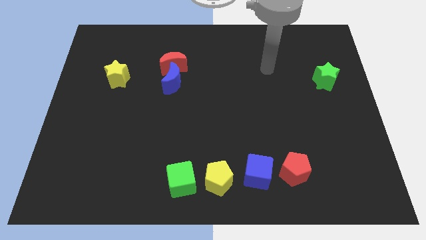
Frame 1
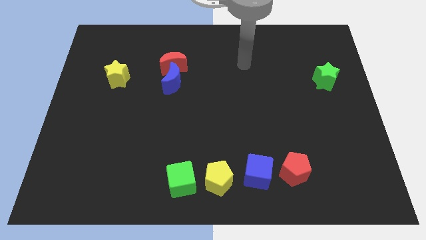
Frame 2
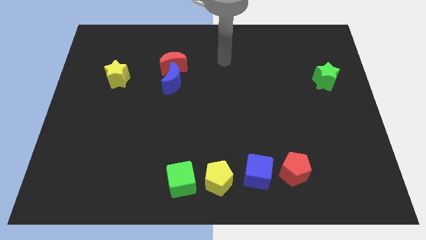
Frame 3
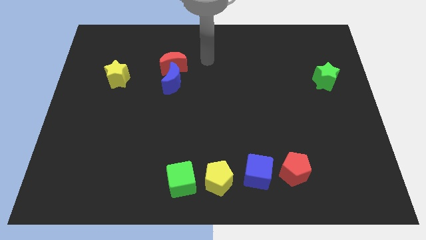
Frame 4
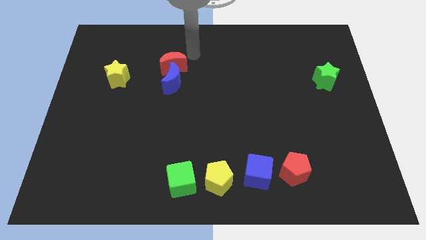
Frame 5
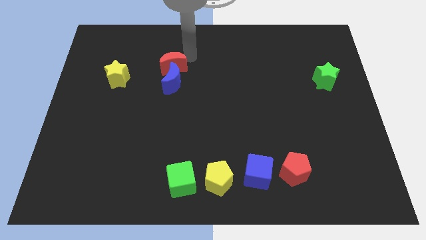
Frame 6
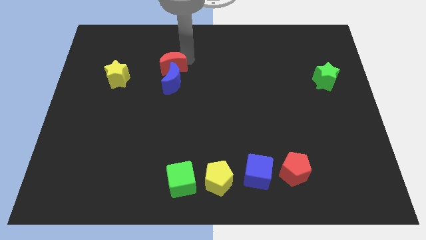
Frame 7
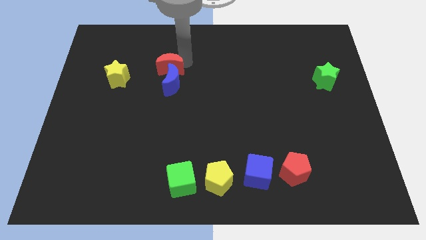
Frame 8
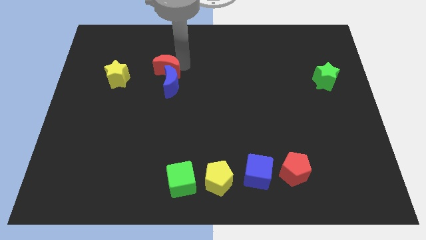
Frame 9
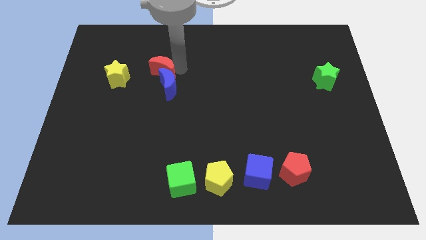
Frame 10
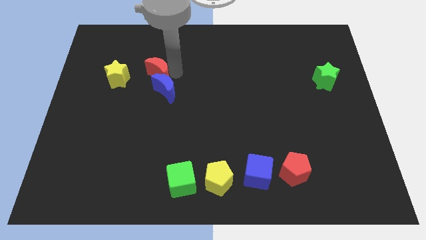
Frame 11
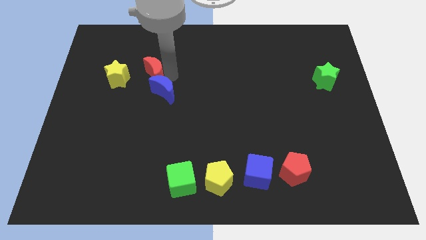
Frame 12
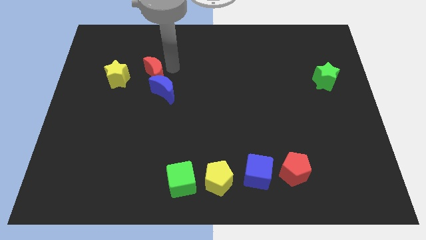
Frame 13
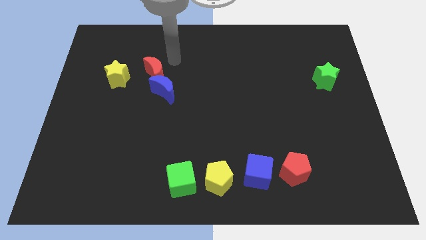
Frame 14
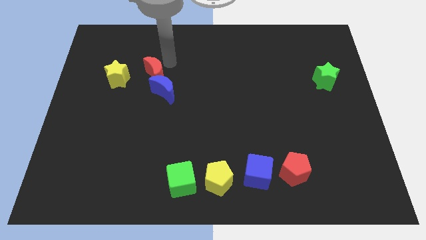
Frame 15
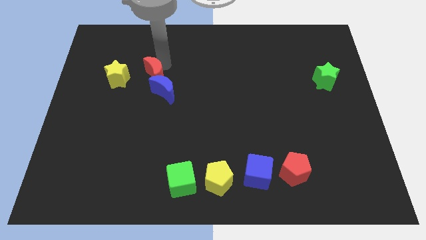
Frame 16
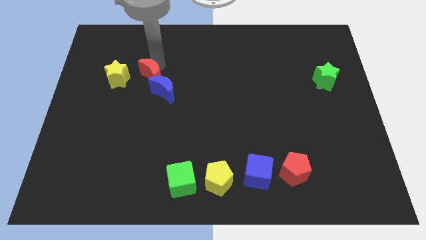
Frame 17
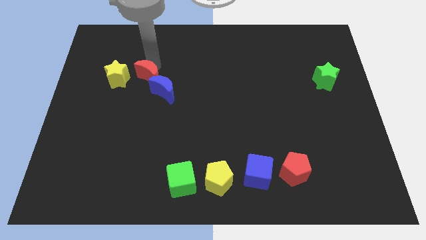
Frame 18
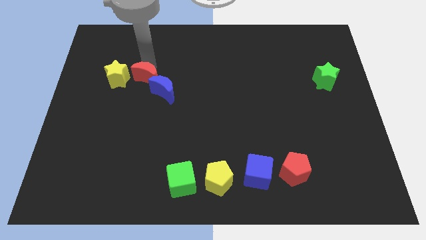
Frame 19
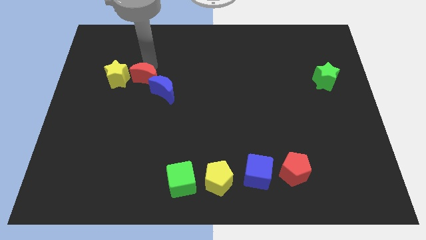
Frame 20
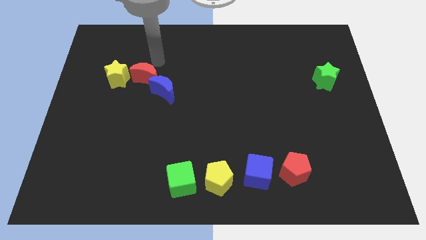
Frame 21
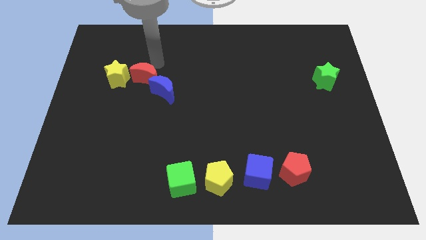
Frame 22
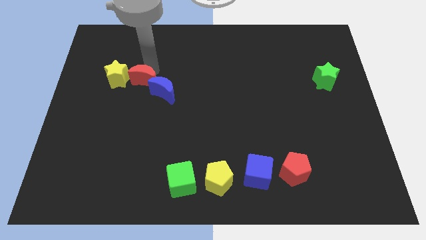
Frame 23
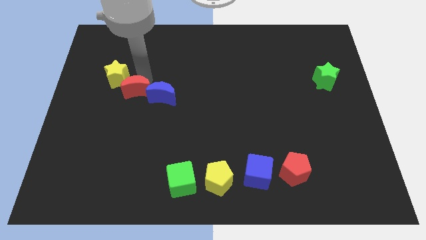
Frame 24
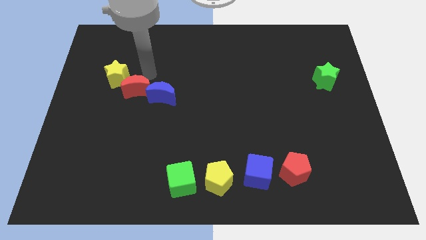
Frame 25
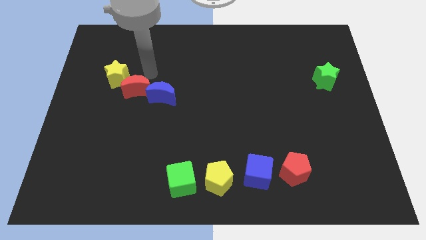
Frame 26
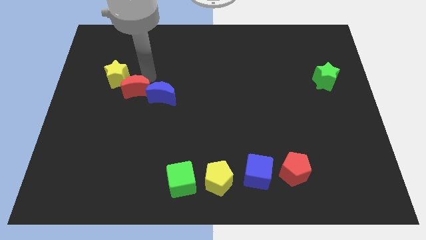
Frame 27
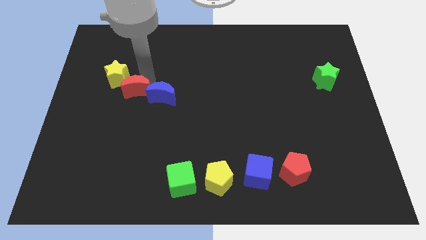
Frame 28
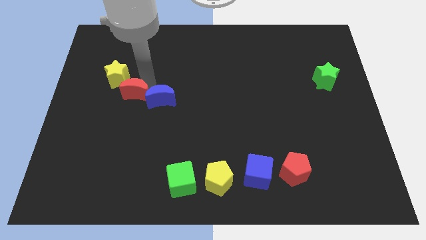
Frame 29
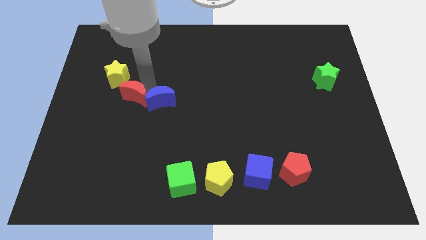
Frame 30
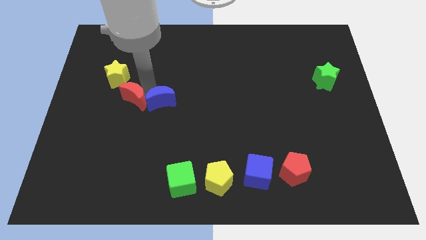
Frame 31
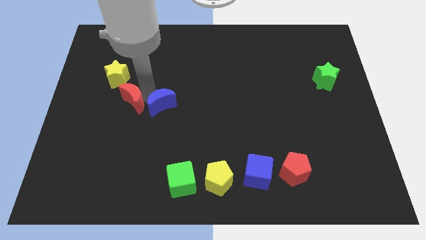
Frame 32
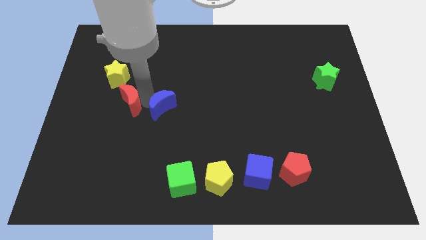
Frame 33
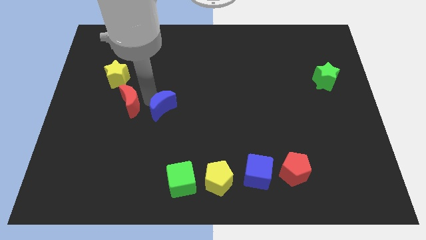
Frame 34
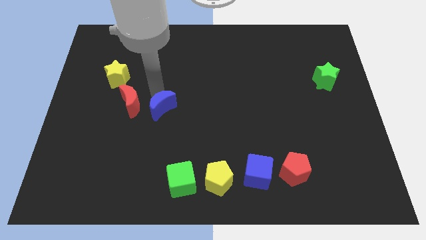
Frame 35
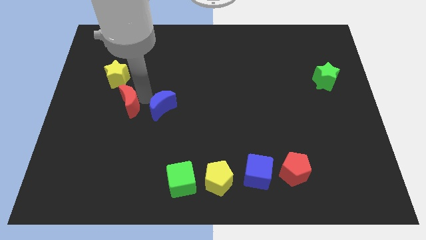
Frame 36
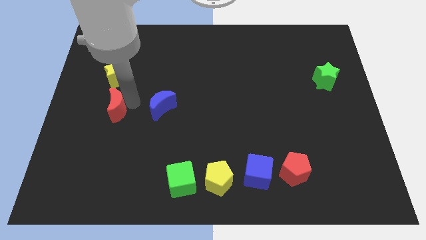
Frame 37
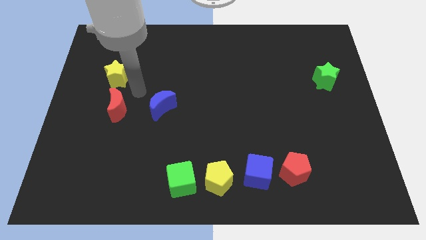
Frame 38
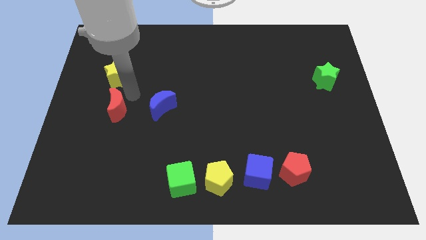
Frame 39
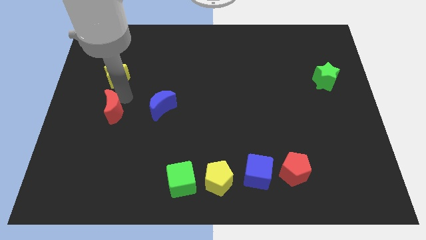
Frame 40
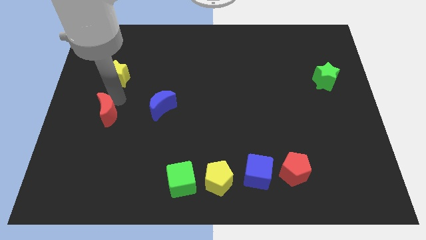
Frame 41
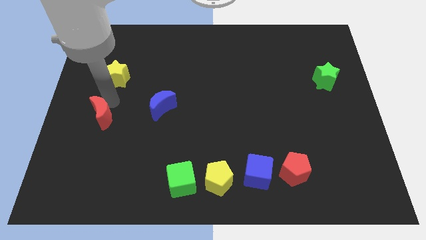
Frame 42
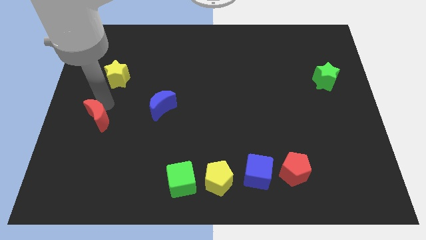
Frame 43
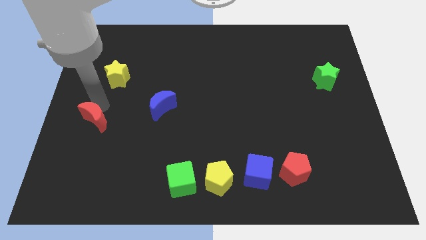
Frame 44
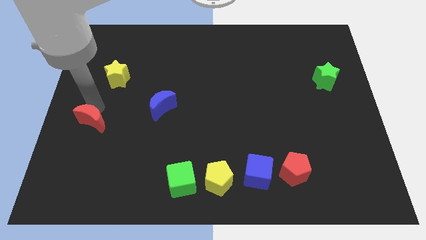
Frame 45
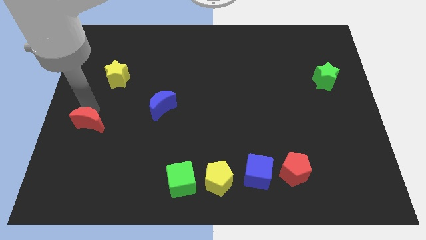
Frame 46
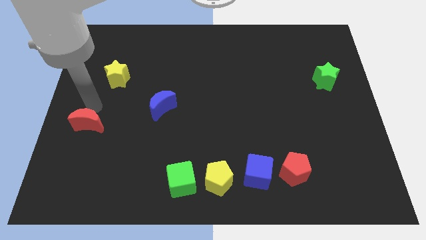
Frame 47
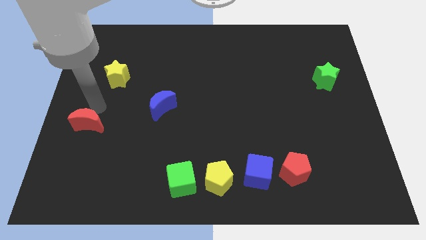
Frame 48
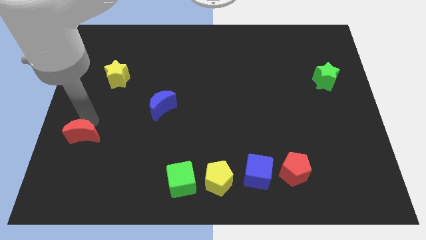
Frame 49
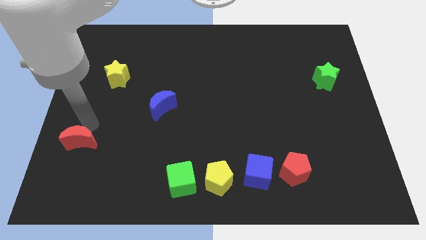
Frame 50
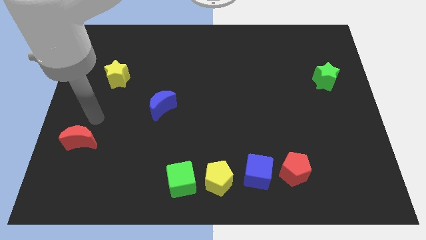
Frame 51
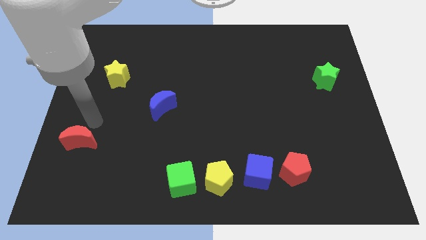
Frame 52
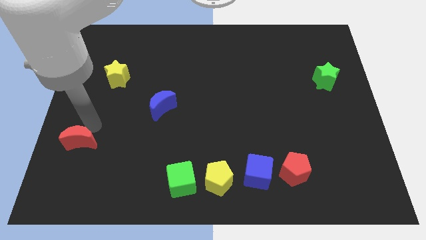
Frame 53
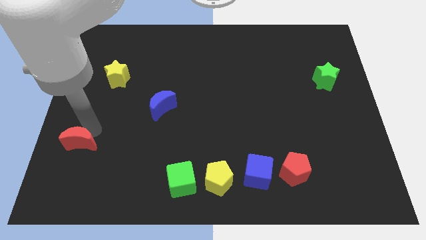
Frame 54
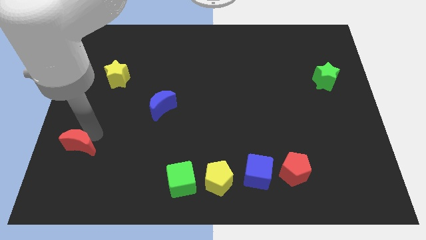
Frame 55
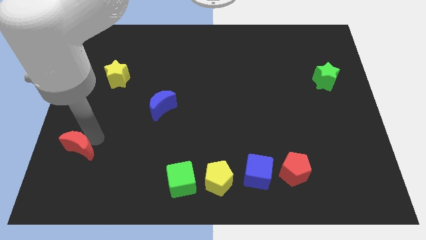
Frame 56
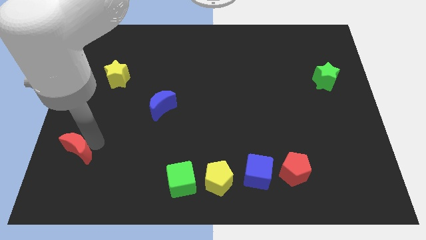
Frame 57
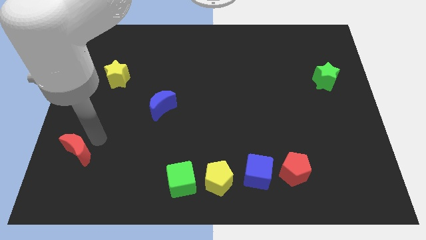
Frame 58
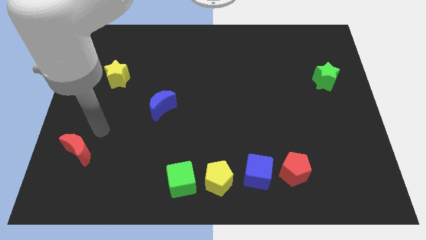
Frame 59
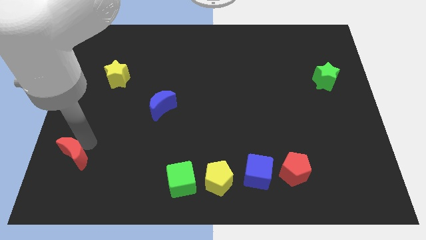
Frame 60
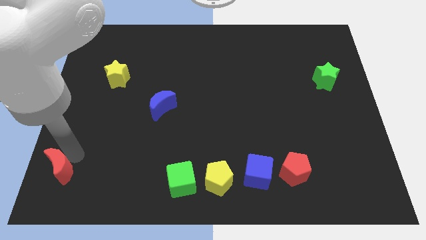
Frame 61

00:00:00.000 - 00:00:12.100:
push the red moon to the bottom left corner

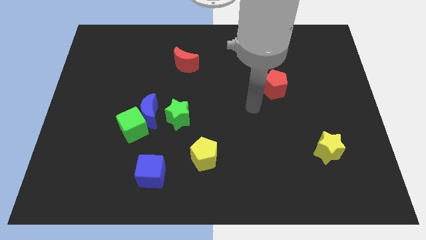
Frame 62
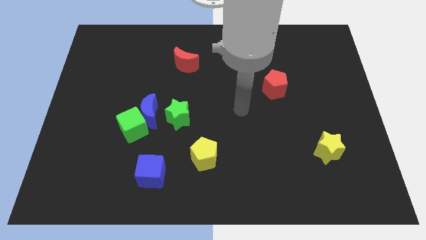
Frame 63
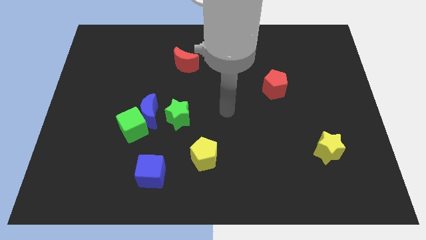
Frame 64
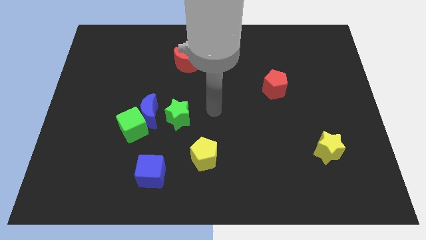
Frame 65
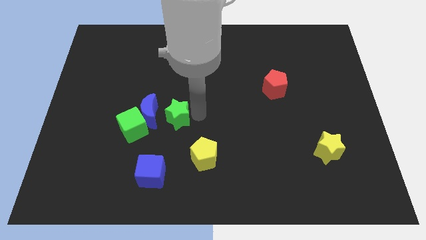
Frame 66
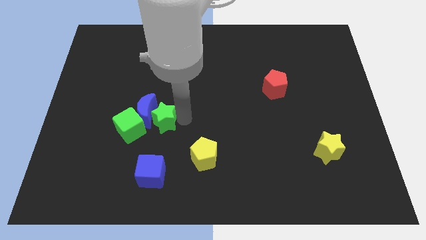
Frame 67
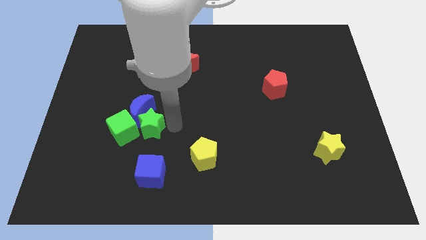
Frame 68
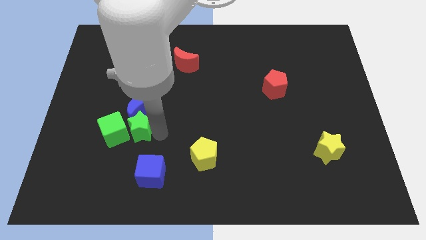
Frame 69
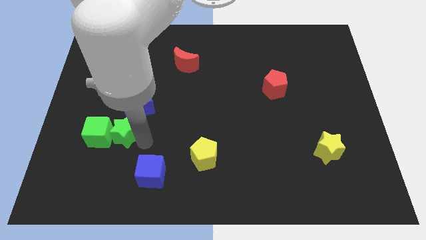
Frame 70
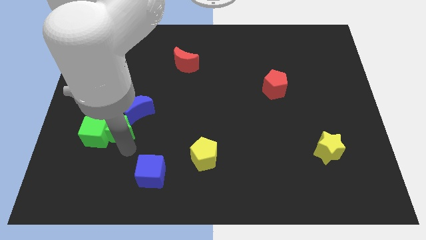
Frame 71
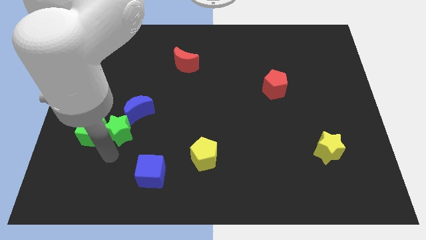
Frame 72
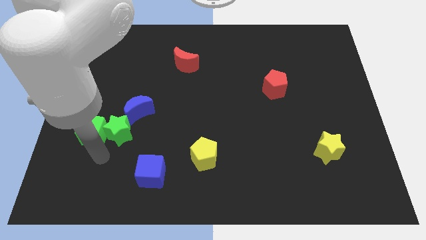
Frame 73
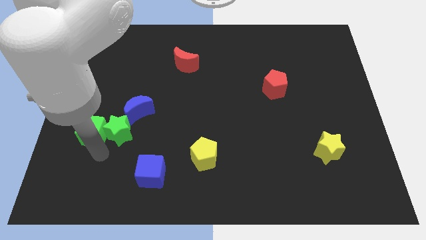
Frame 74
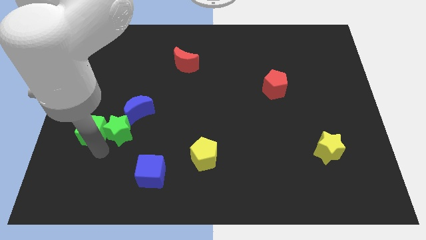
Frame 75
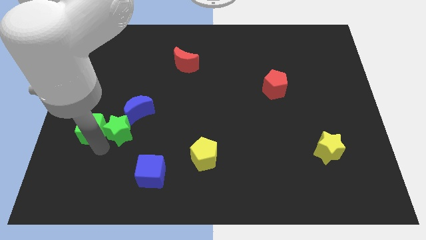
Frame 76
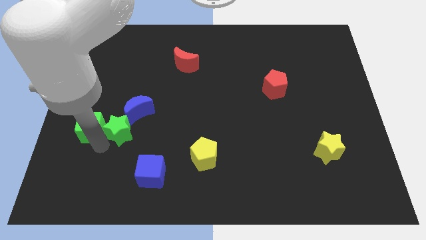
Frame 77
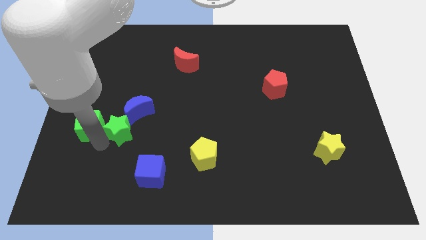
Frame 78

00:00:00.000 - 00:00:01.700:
push the green cube to the center left

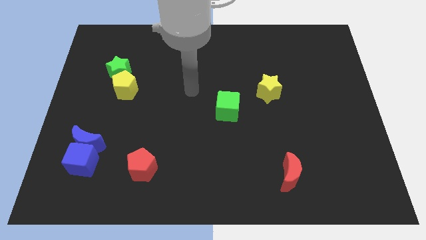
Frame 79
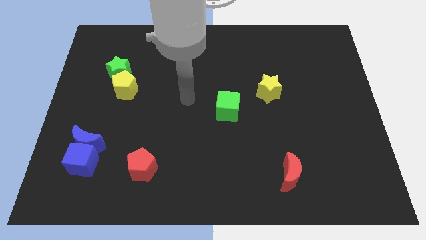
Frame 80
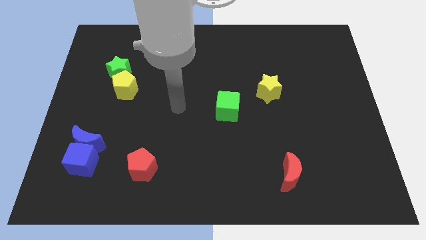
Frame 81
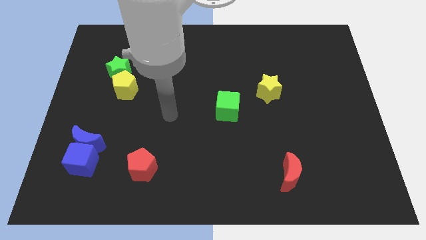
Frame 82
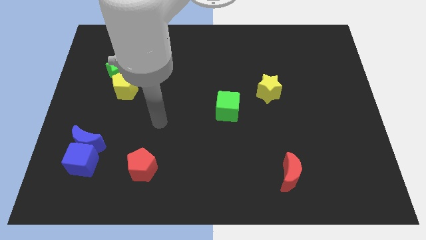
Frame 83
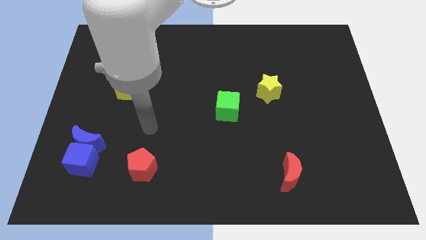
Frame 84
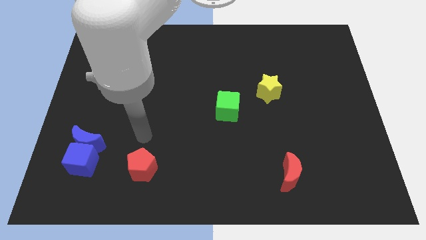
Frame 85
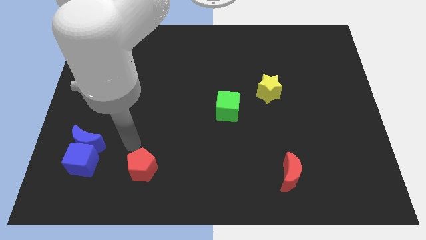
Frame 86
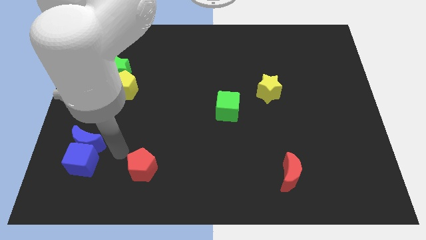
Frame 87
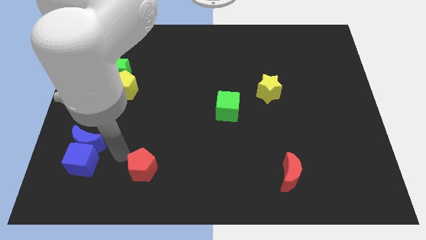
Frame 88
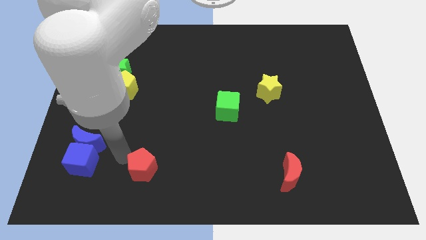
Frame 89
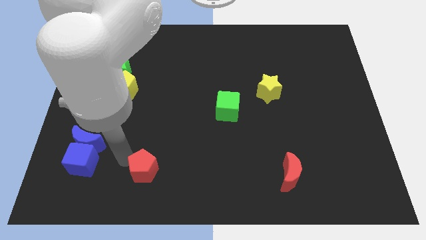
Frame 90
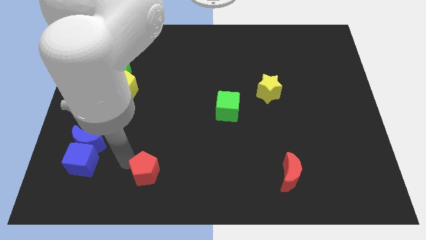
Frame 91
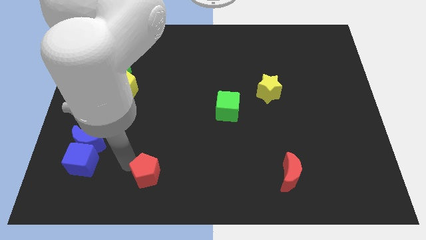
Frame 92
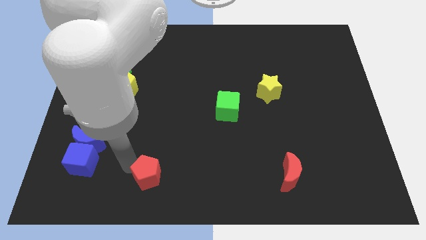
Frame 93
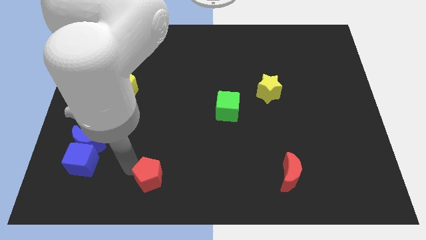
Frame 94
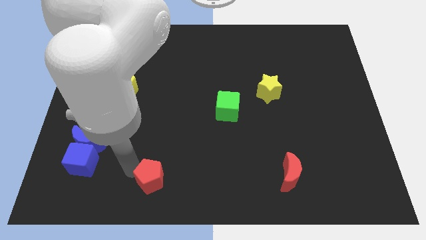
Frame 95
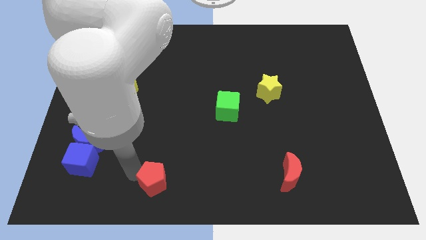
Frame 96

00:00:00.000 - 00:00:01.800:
put the red pentagon to the bottom
